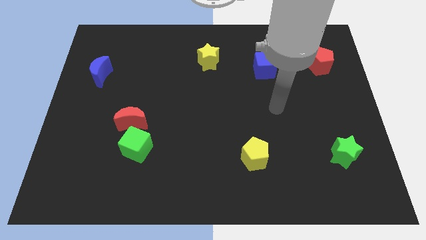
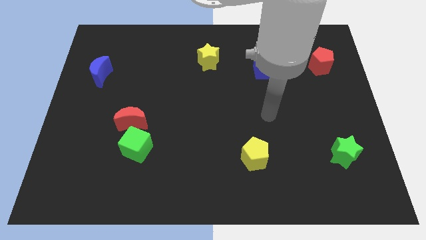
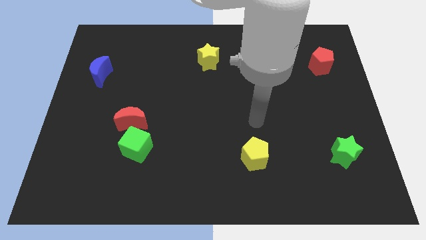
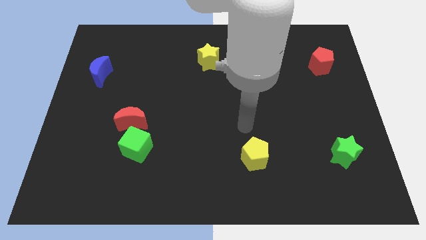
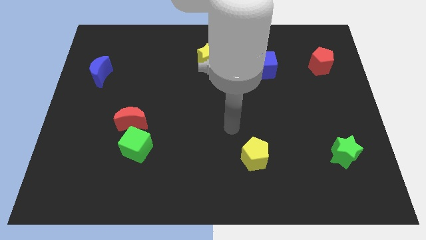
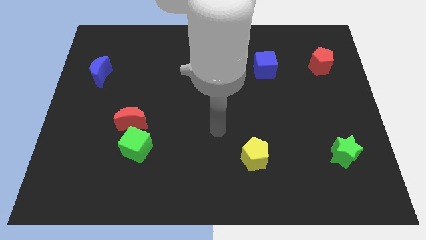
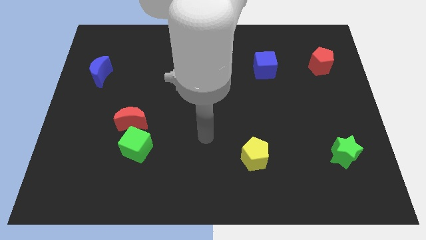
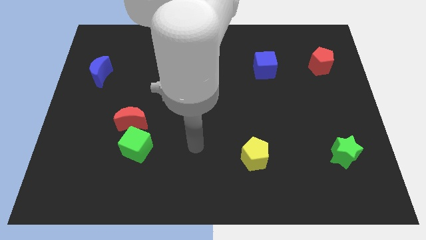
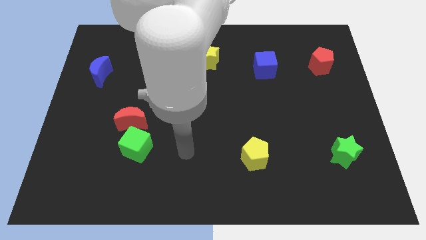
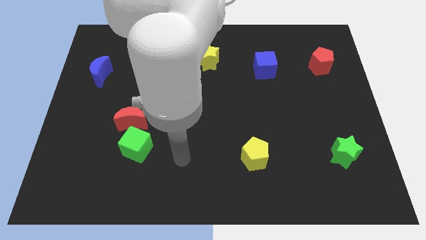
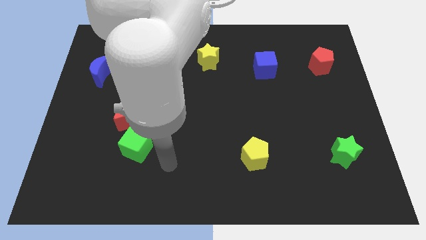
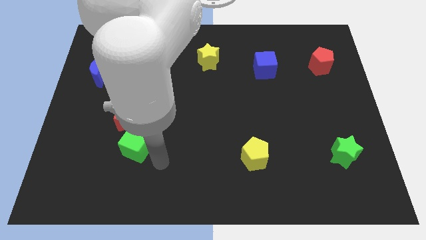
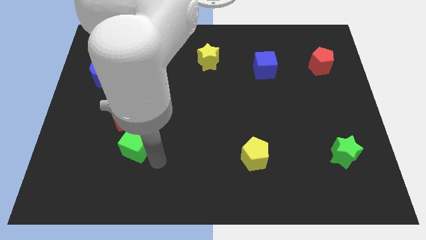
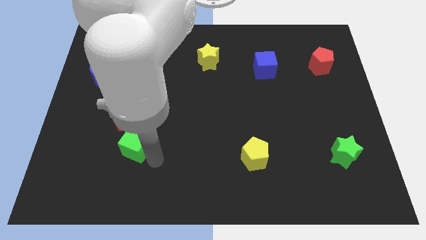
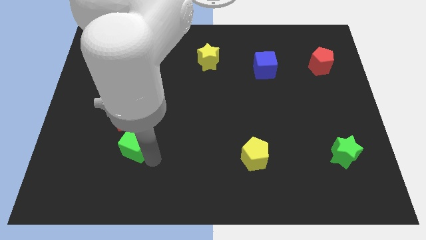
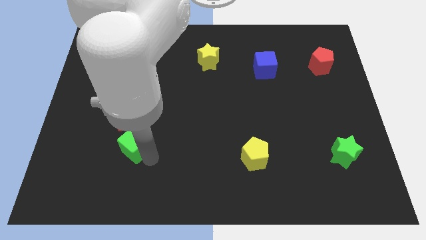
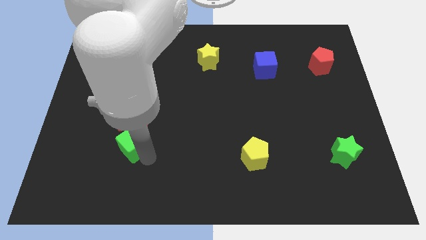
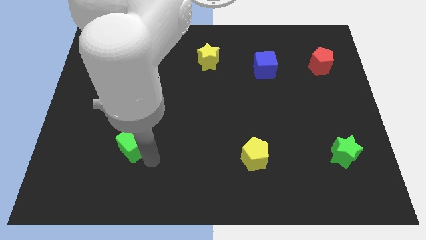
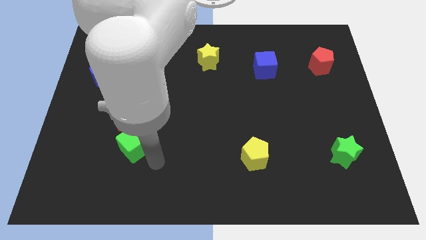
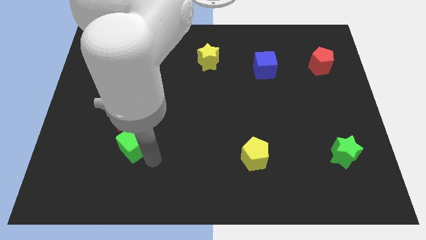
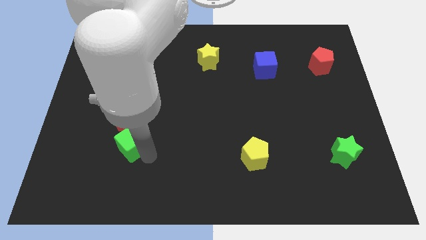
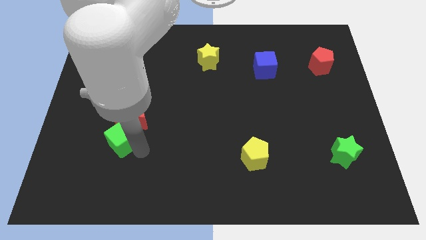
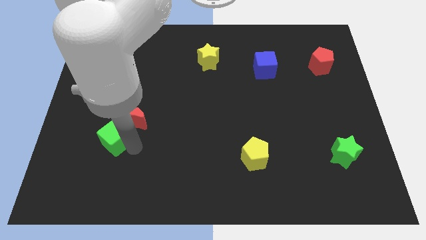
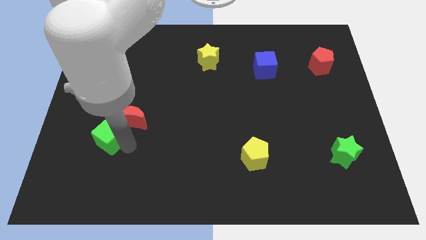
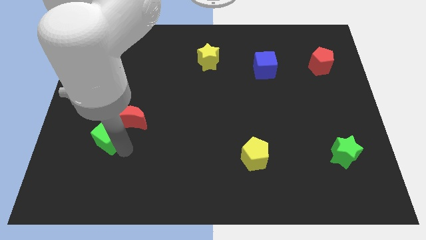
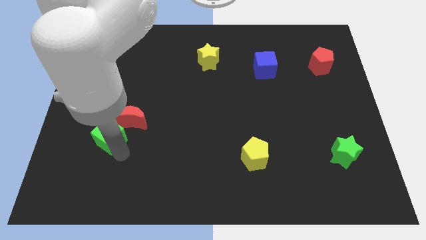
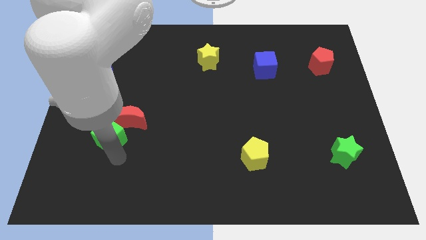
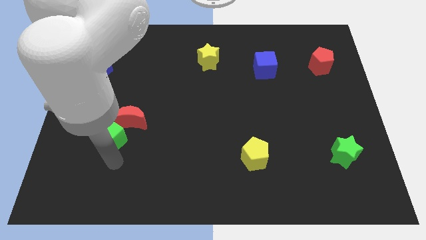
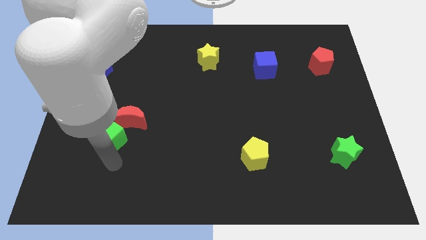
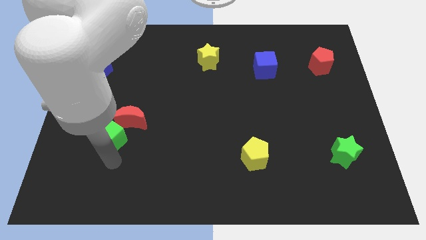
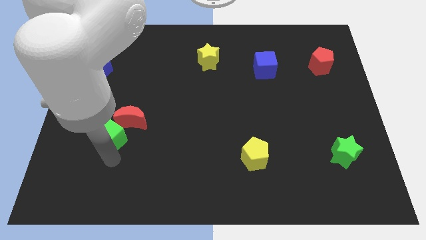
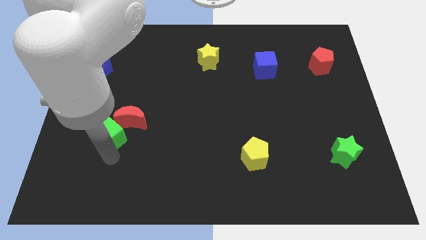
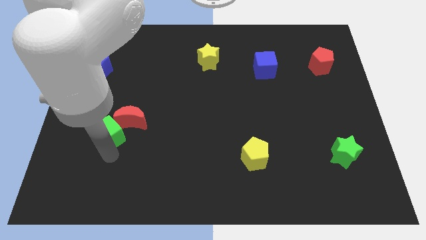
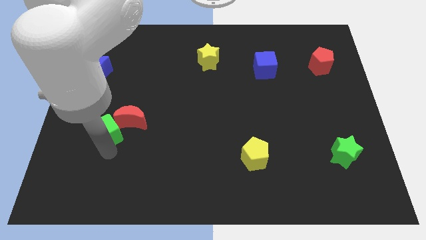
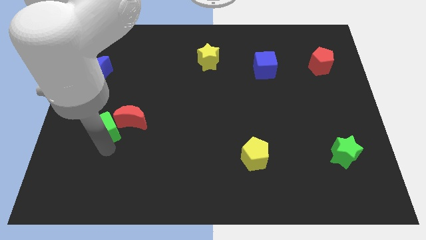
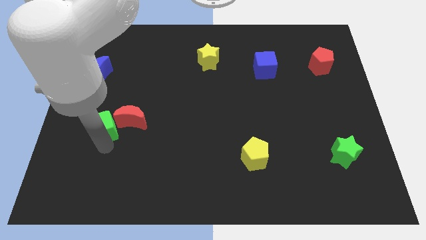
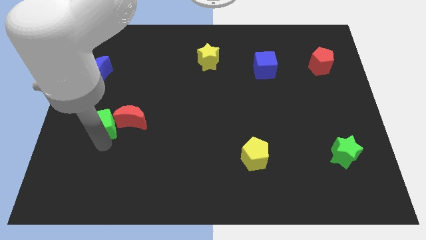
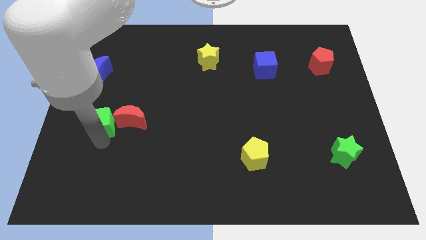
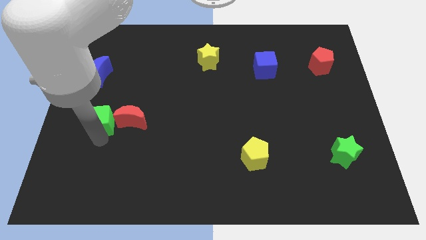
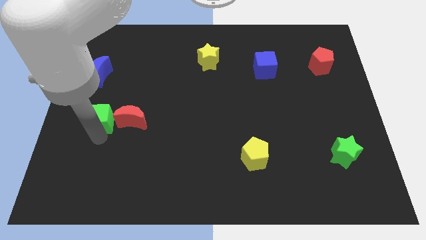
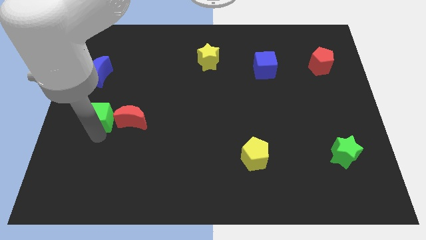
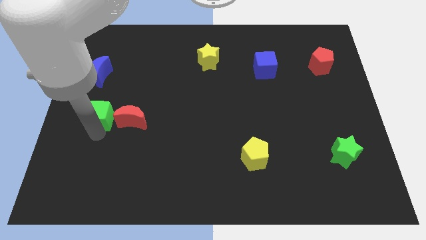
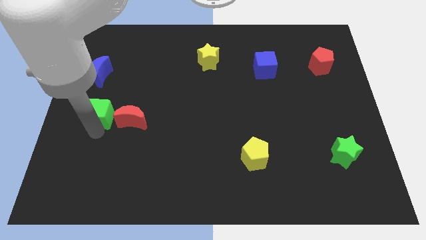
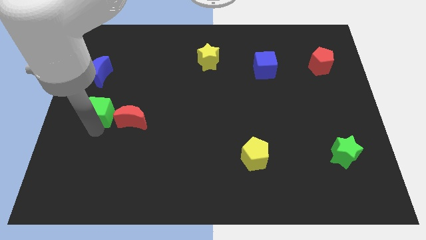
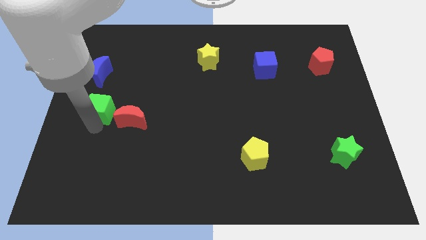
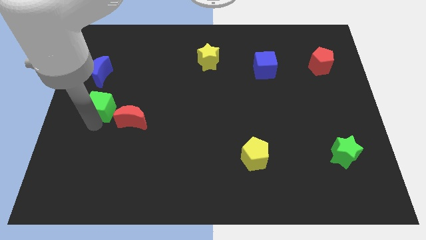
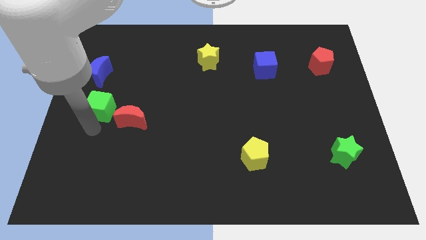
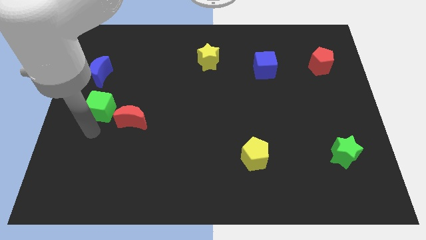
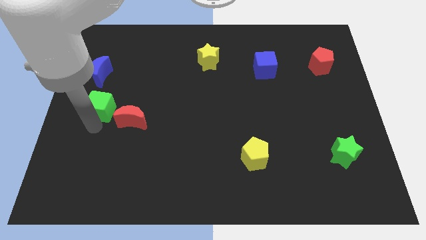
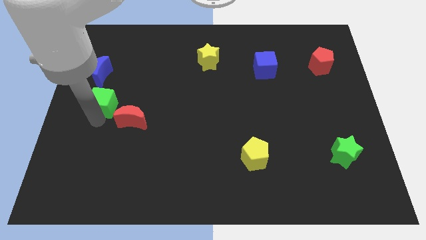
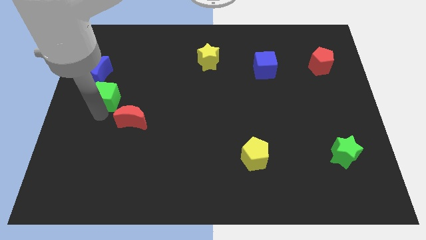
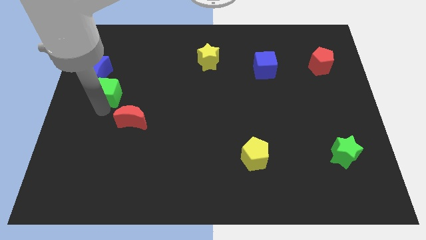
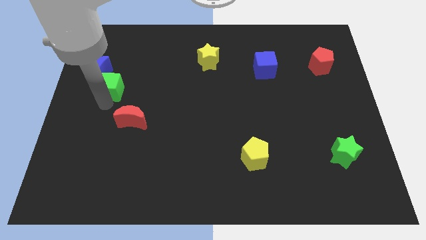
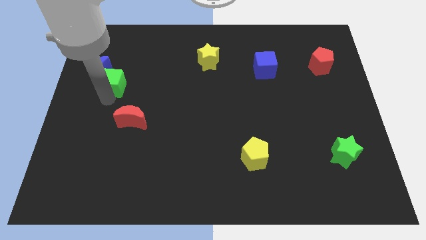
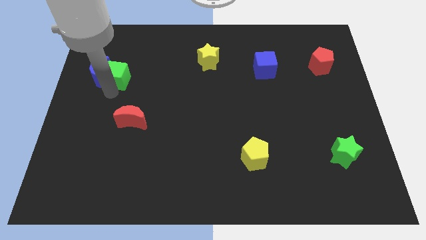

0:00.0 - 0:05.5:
slide the green cube to the top right of the blue moon

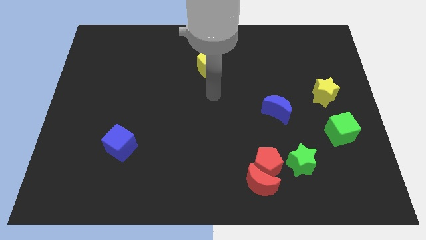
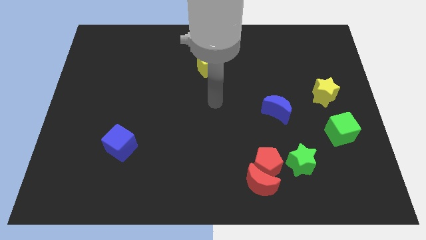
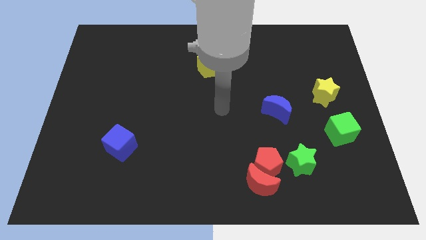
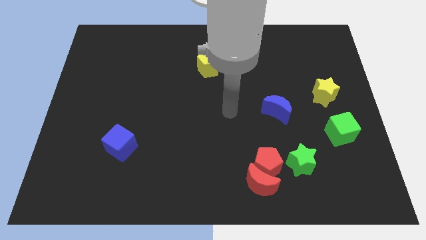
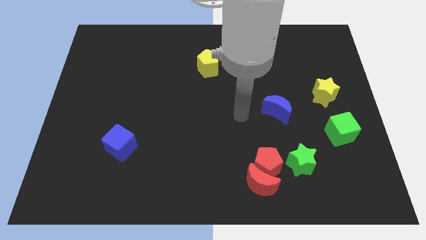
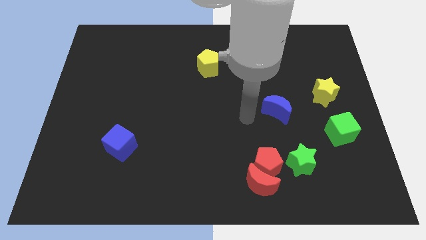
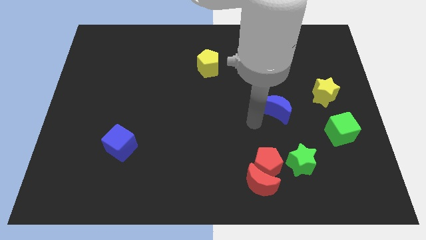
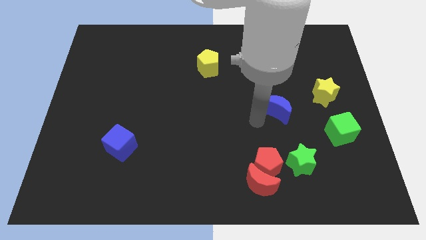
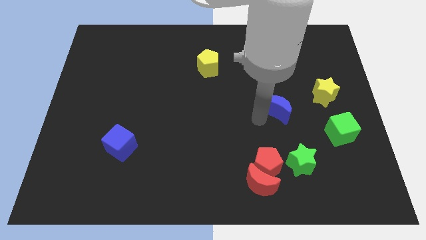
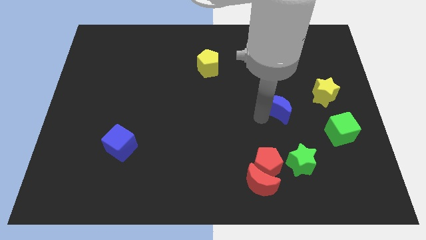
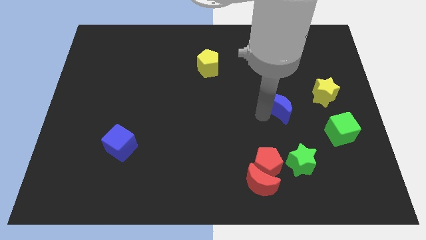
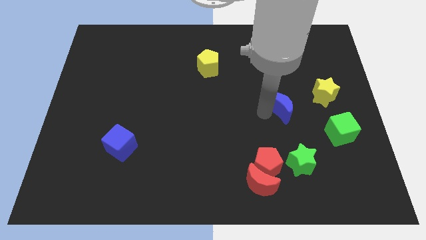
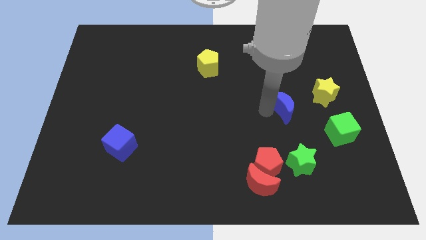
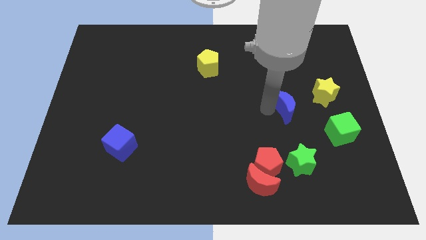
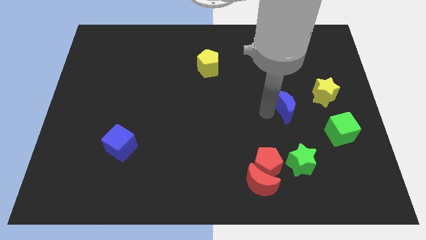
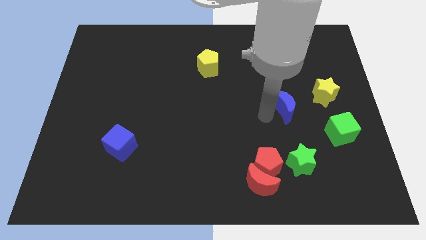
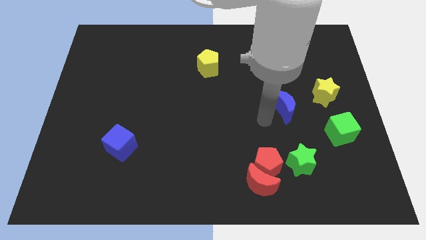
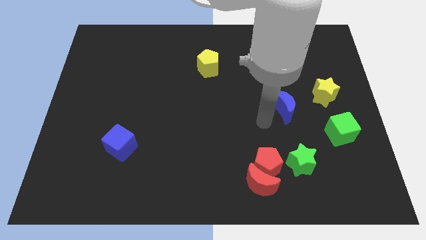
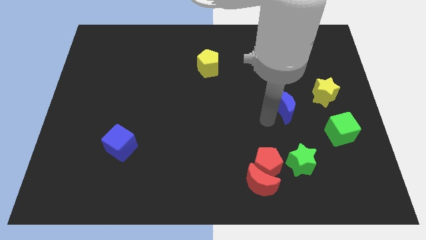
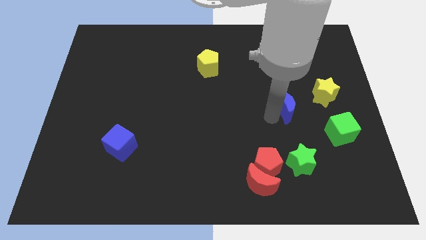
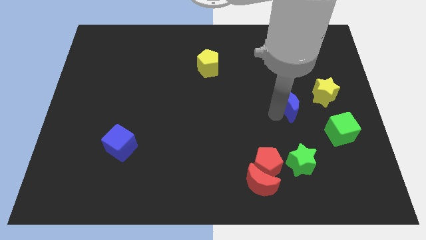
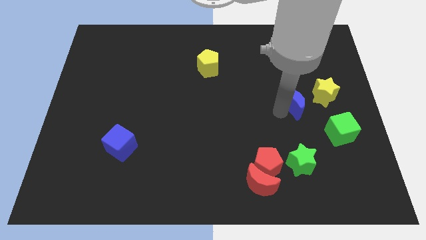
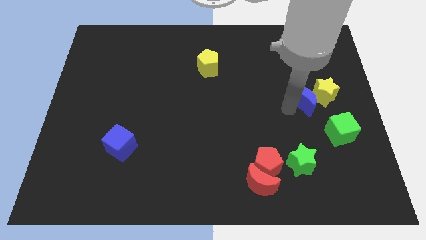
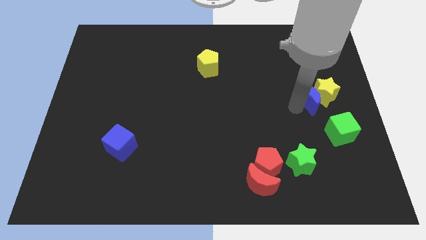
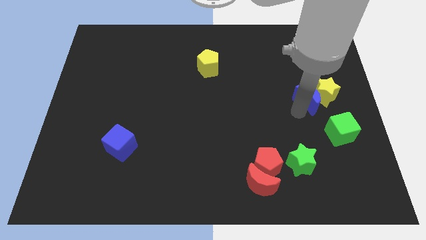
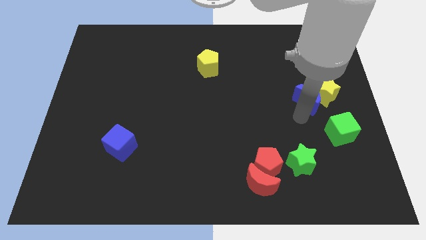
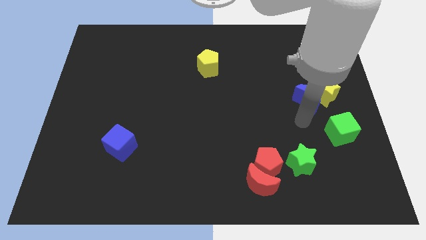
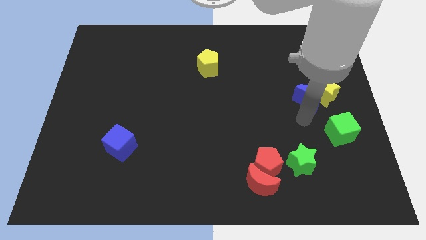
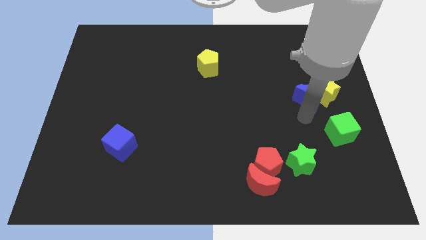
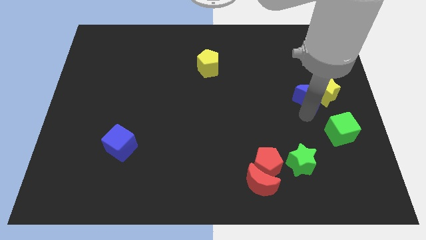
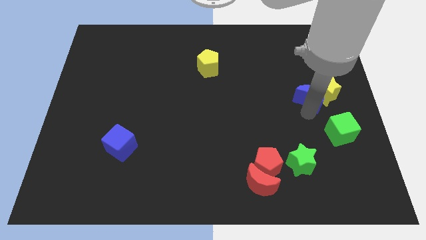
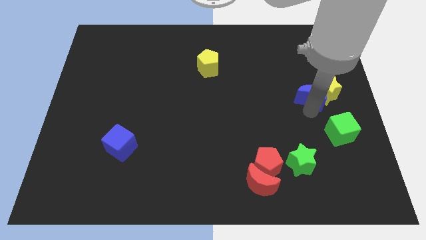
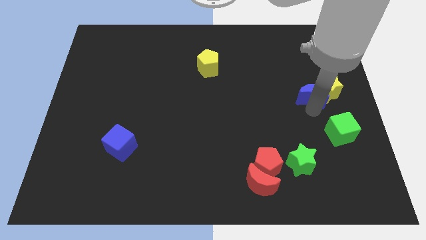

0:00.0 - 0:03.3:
slide the blue moon to the top side of the green cube
